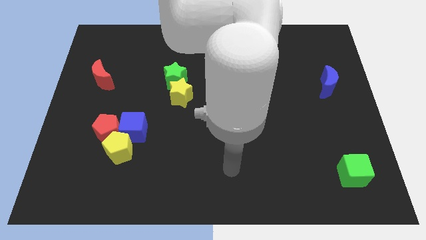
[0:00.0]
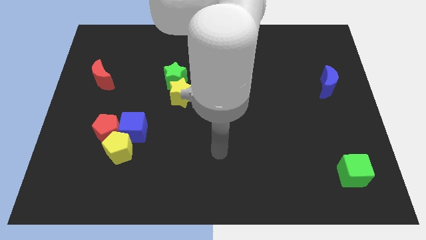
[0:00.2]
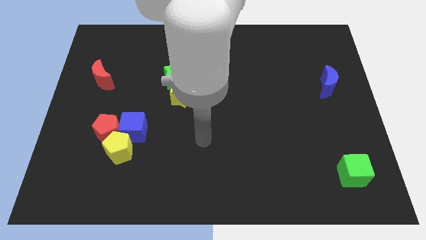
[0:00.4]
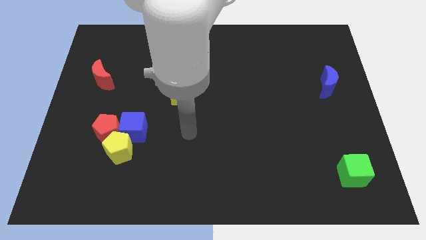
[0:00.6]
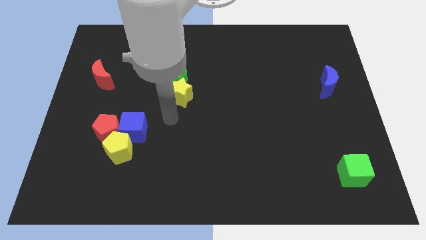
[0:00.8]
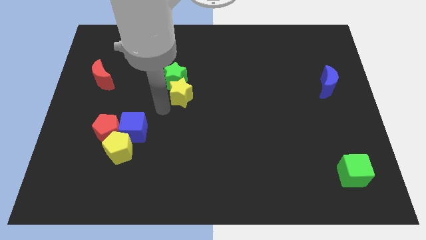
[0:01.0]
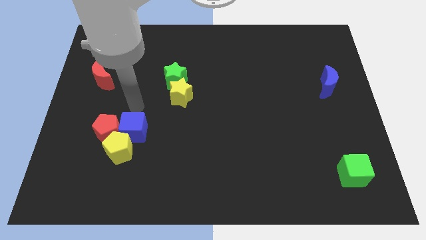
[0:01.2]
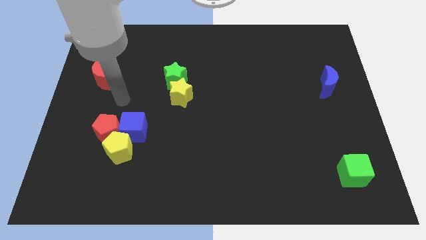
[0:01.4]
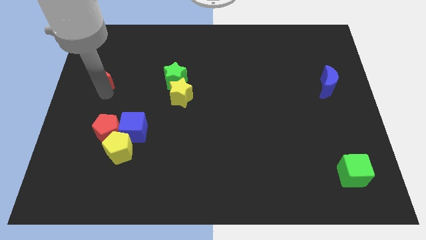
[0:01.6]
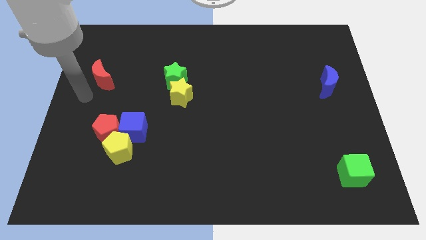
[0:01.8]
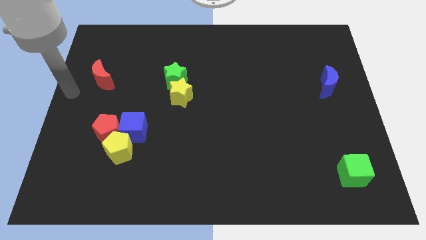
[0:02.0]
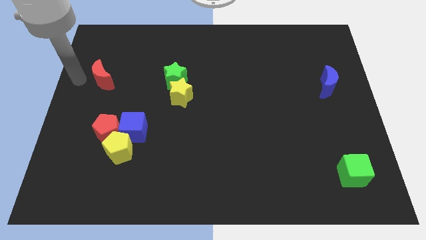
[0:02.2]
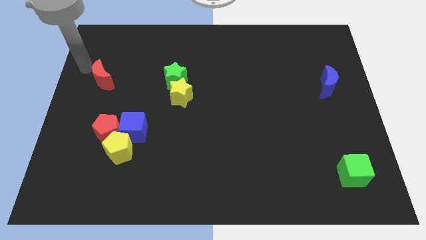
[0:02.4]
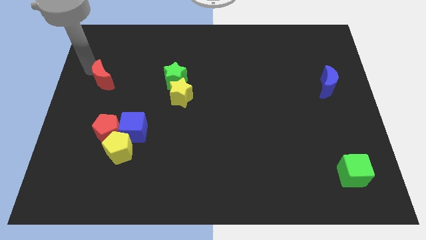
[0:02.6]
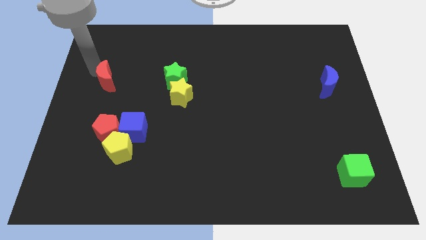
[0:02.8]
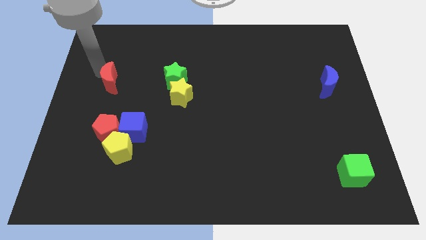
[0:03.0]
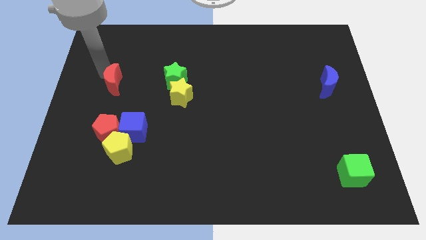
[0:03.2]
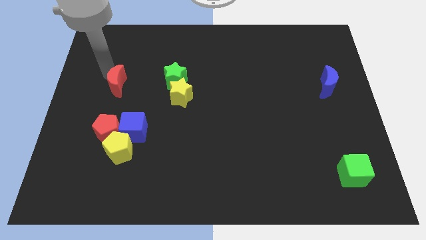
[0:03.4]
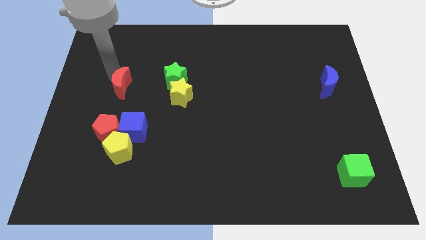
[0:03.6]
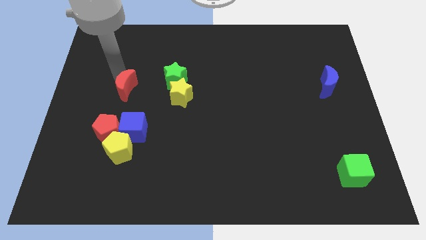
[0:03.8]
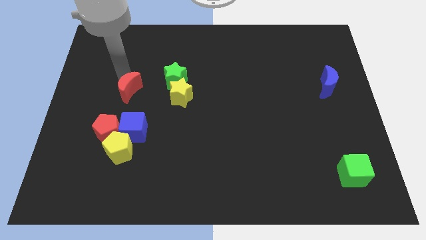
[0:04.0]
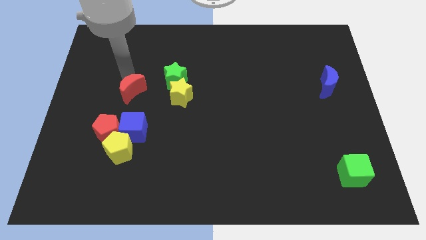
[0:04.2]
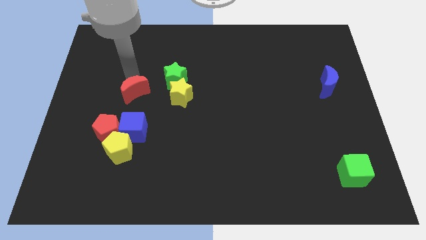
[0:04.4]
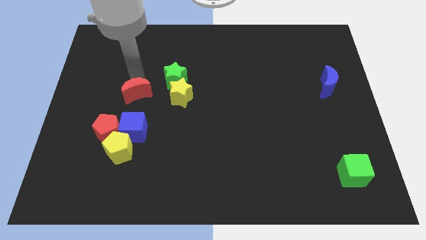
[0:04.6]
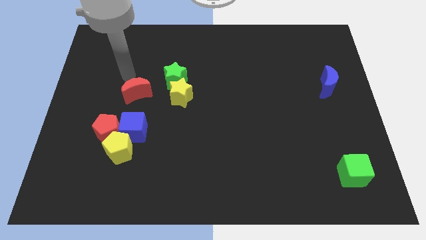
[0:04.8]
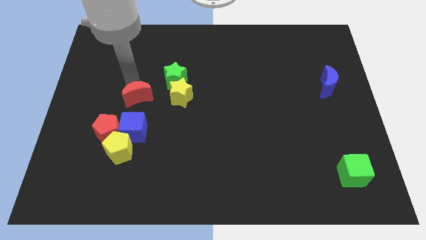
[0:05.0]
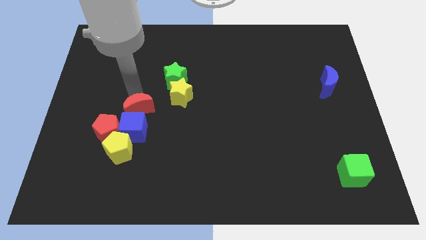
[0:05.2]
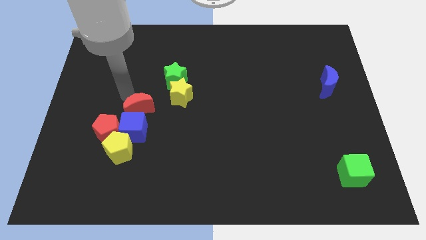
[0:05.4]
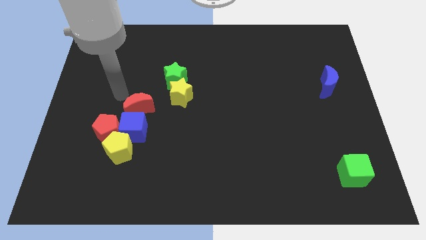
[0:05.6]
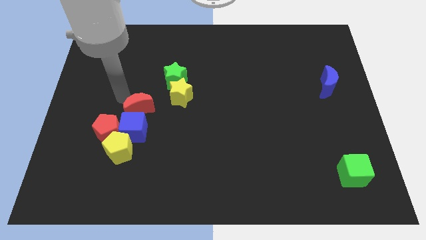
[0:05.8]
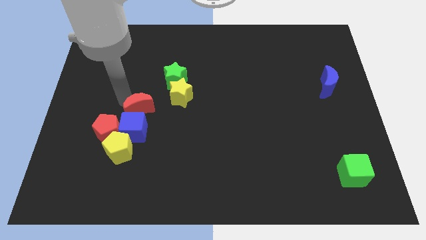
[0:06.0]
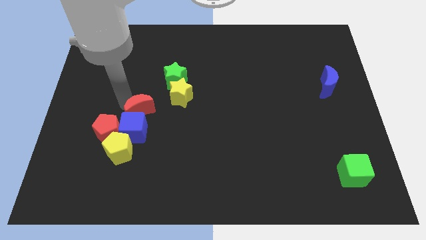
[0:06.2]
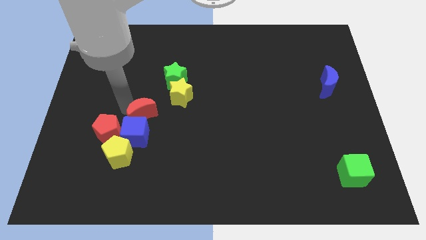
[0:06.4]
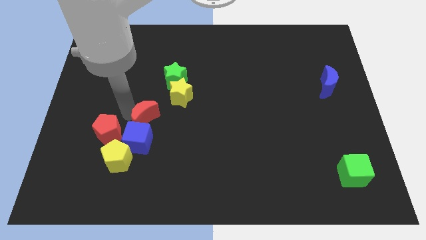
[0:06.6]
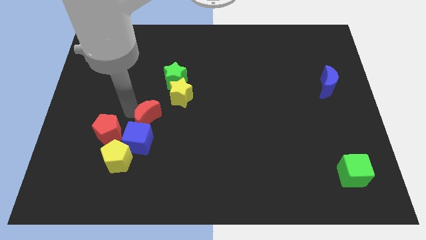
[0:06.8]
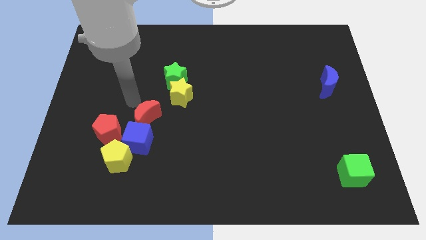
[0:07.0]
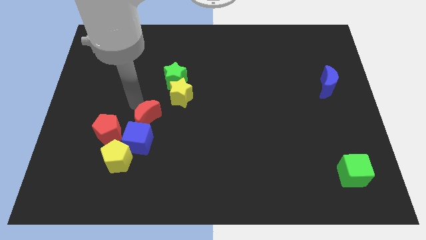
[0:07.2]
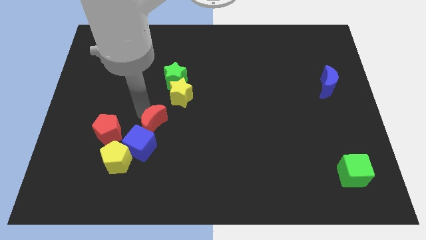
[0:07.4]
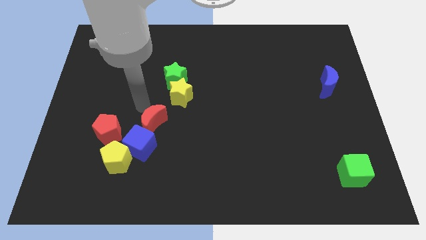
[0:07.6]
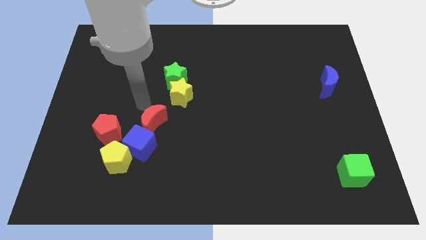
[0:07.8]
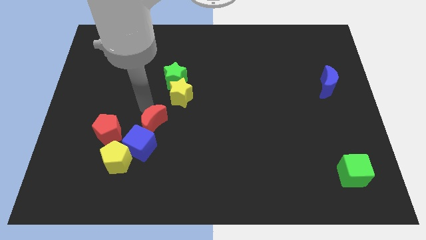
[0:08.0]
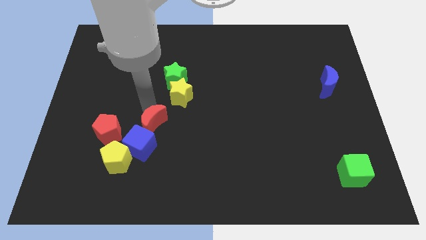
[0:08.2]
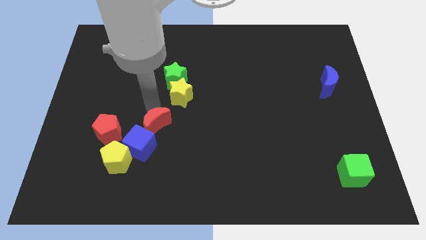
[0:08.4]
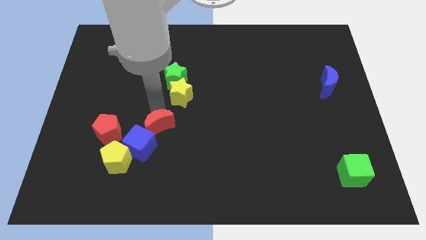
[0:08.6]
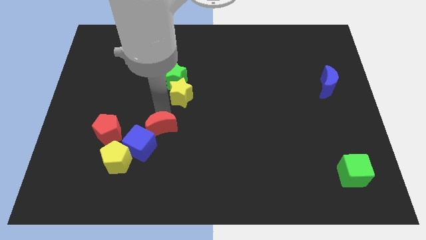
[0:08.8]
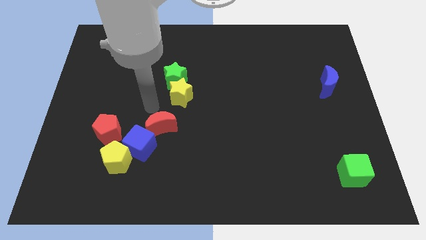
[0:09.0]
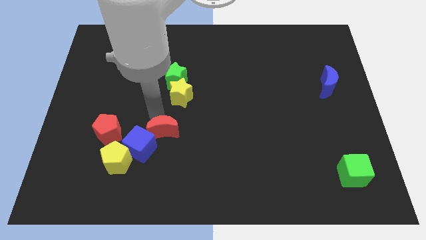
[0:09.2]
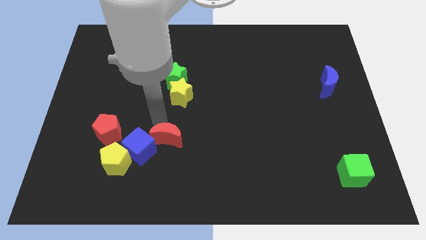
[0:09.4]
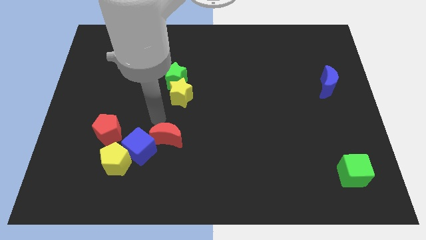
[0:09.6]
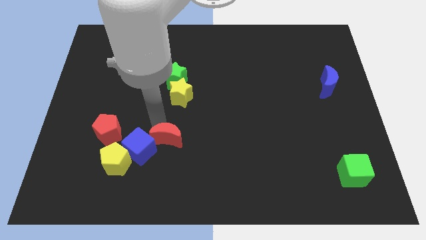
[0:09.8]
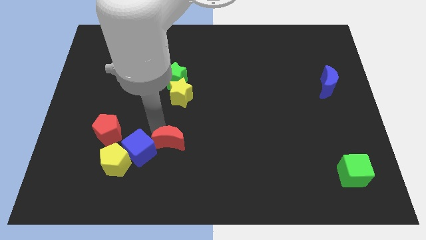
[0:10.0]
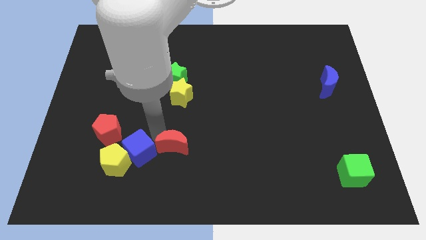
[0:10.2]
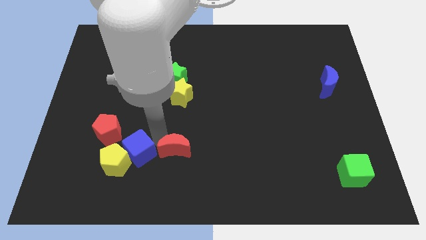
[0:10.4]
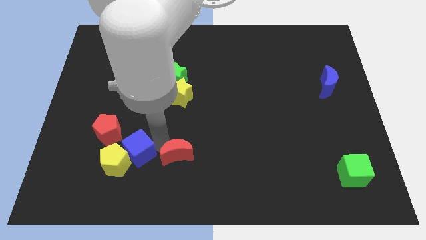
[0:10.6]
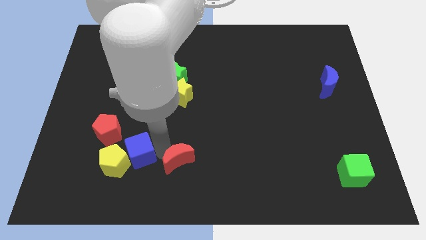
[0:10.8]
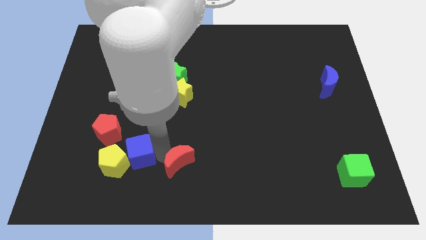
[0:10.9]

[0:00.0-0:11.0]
slide the red moon to the bottom side
